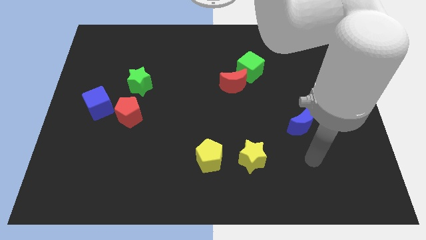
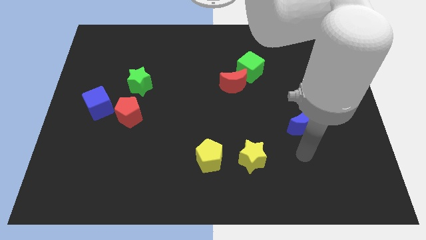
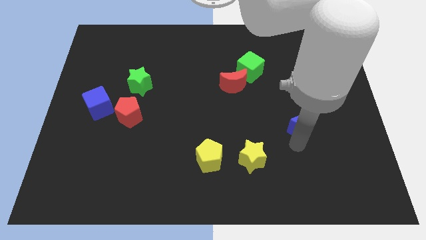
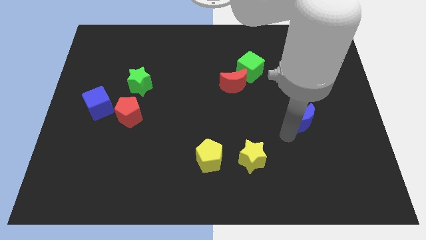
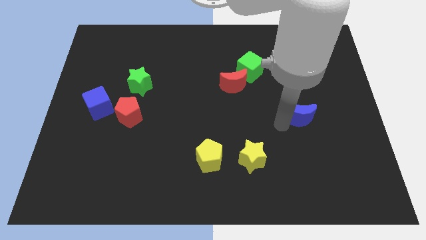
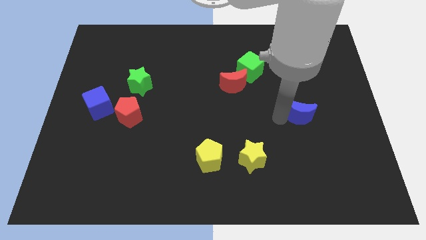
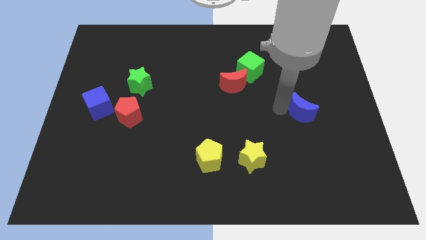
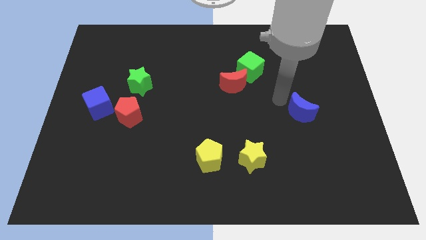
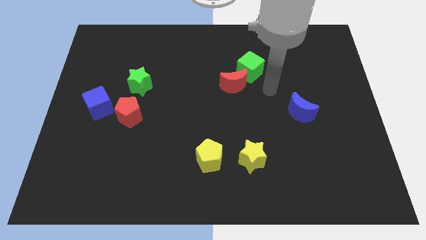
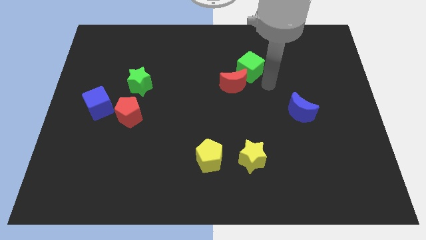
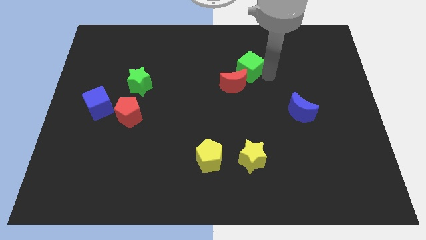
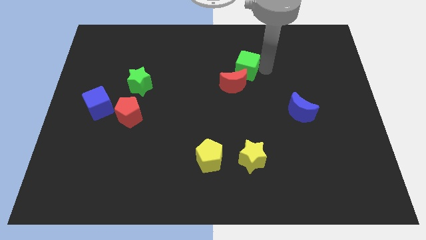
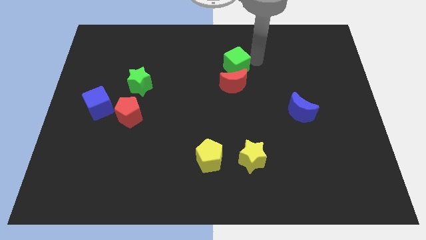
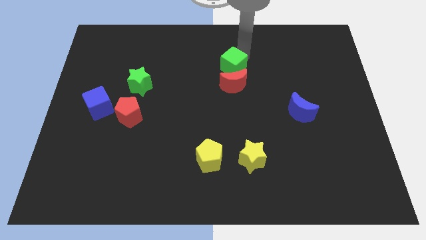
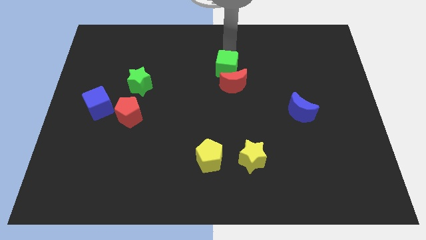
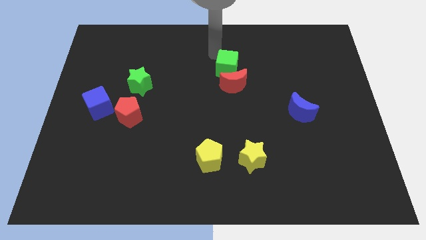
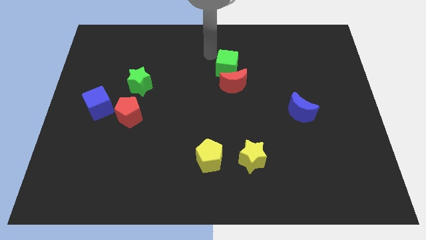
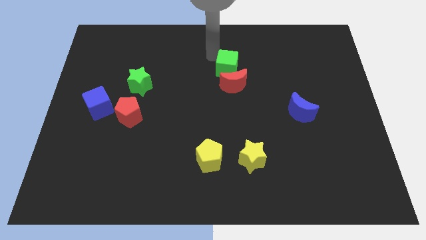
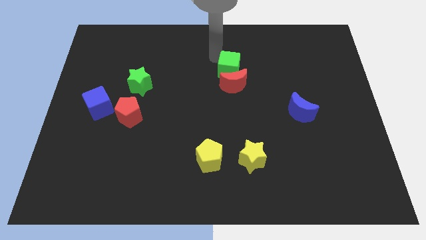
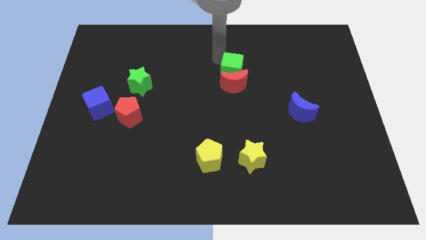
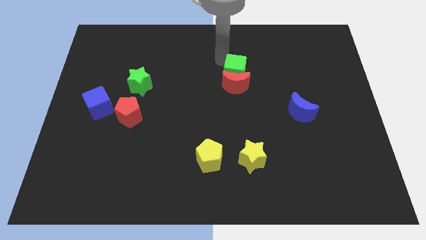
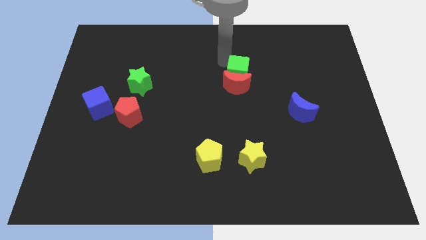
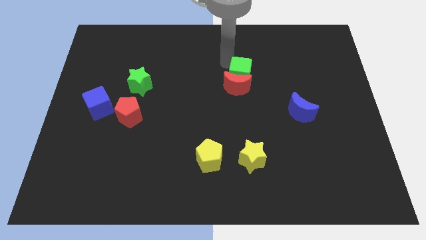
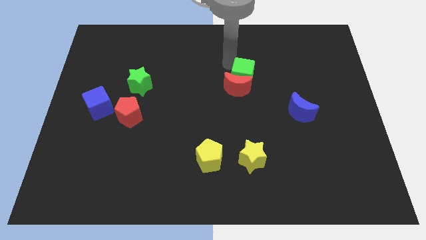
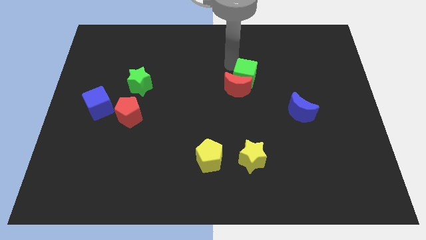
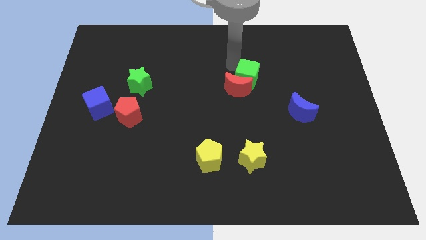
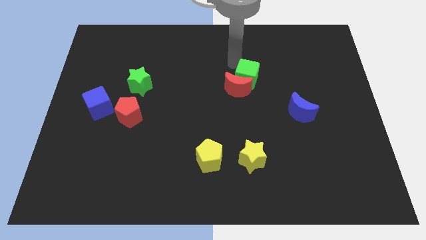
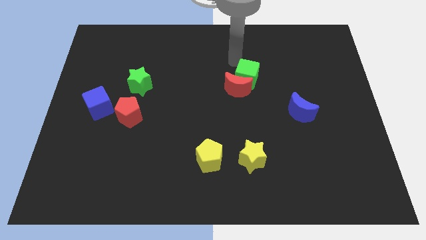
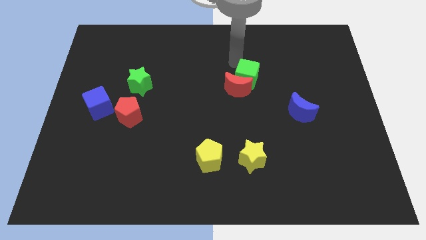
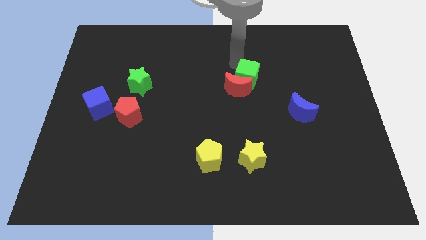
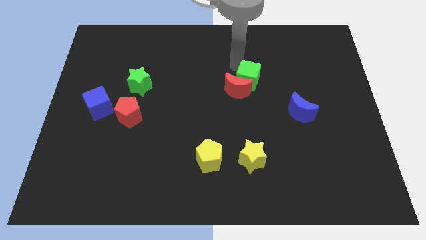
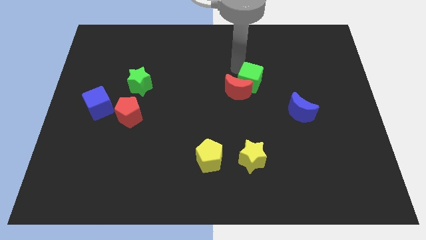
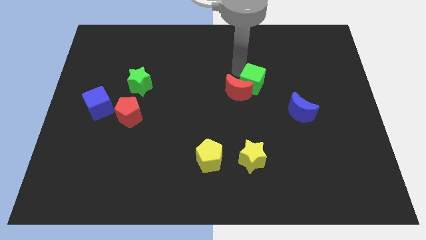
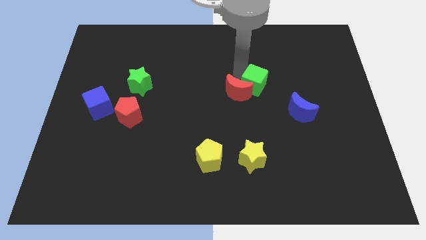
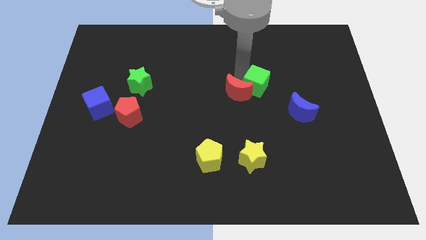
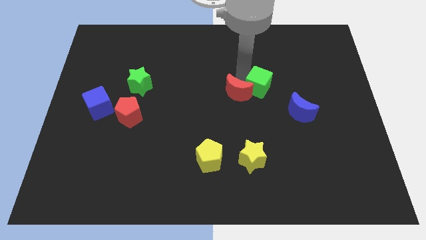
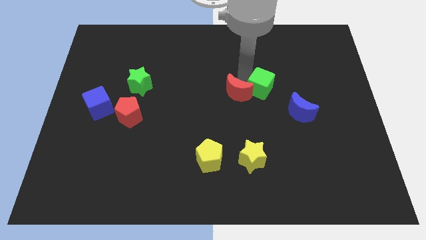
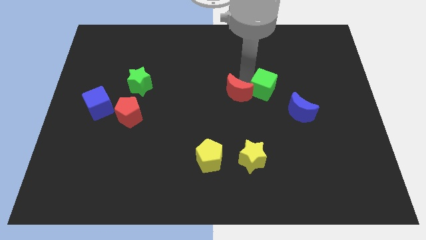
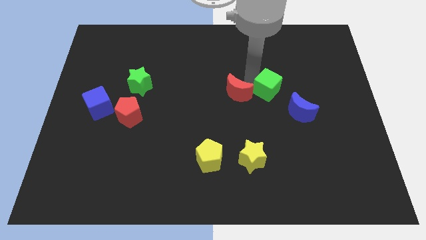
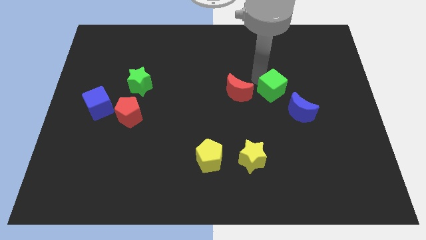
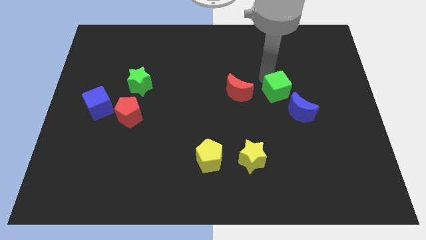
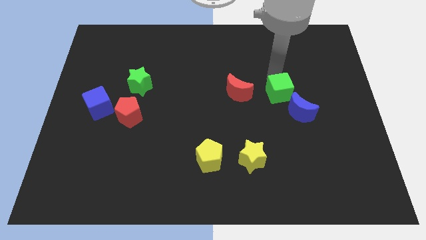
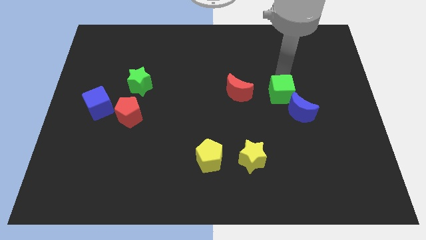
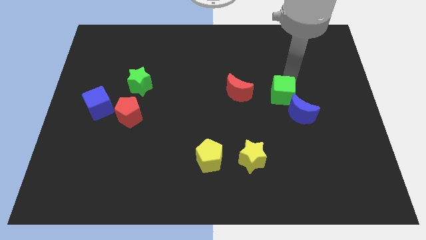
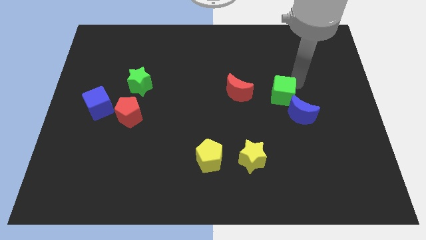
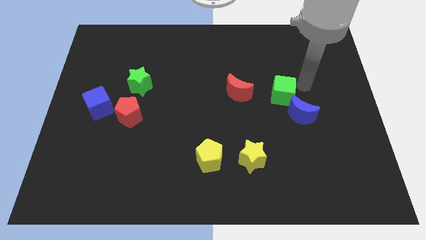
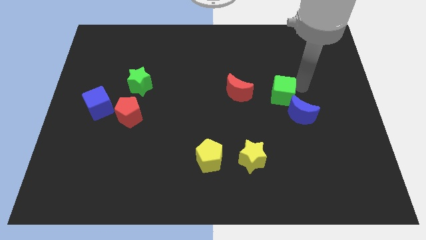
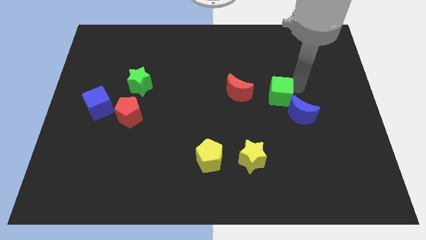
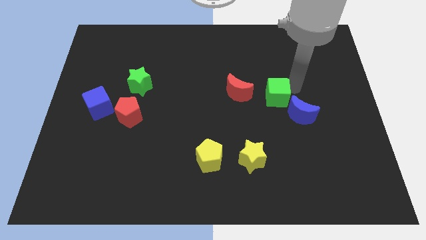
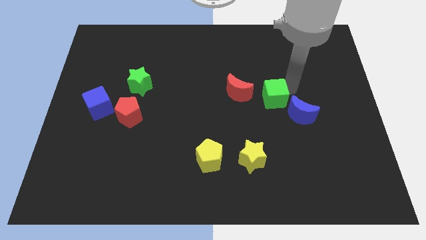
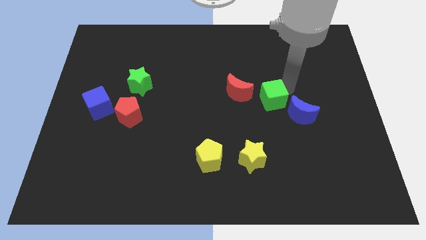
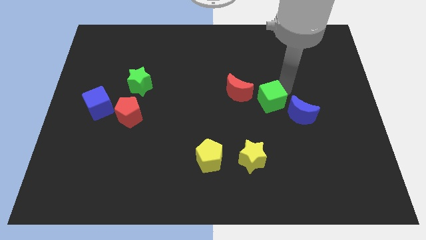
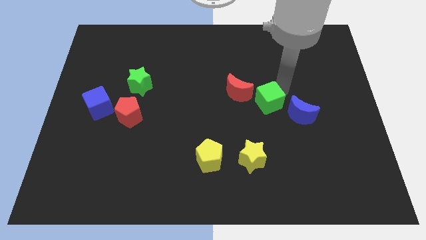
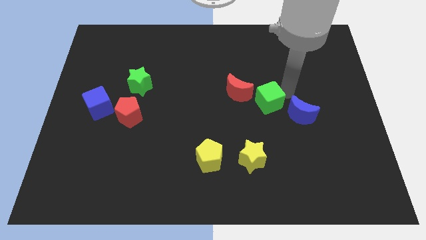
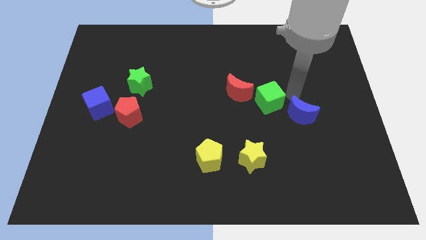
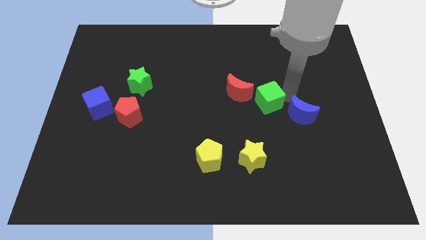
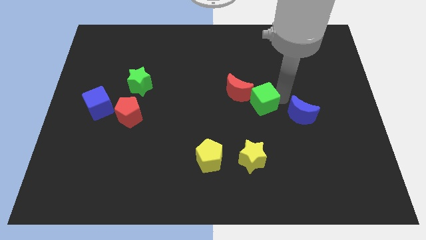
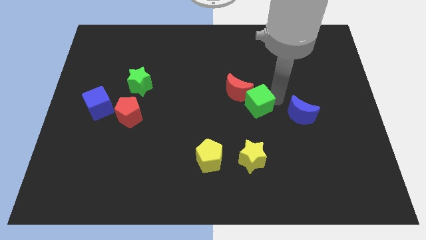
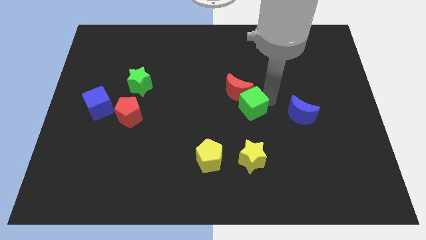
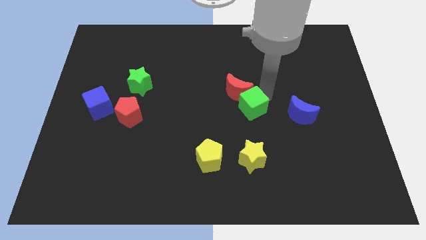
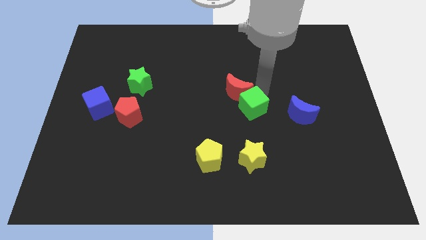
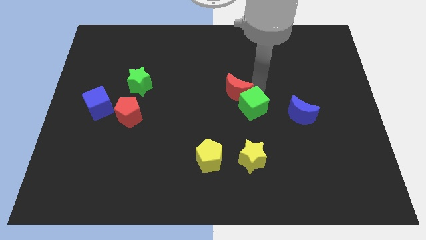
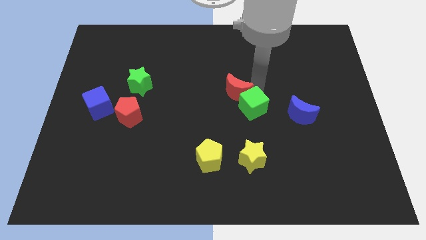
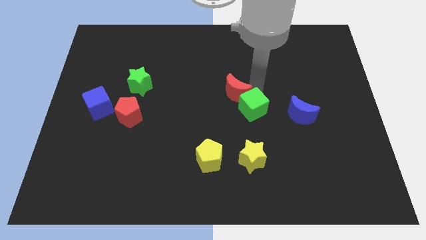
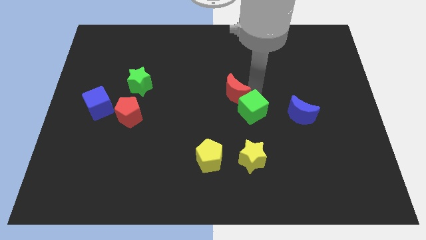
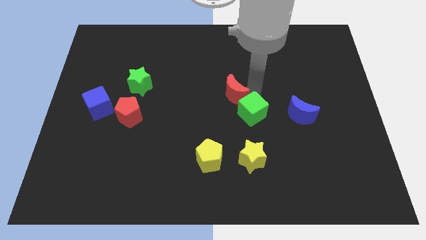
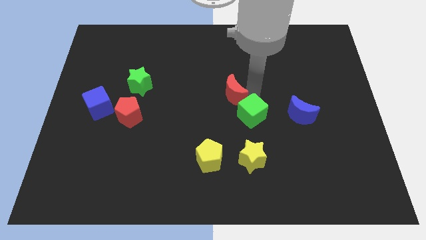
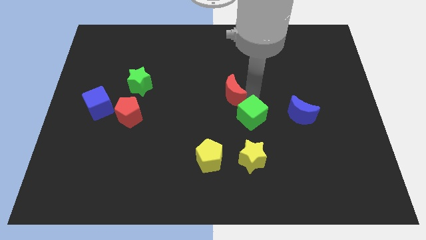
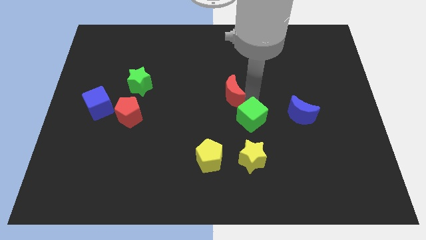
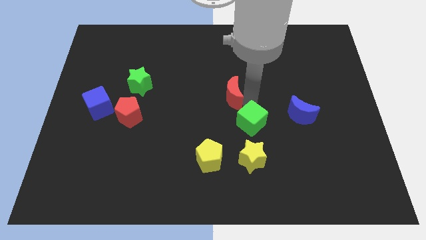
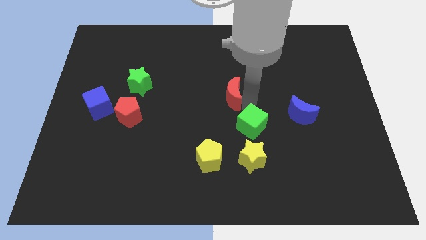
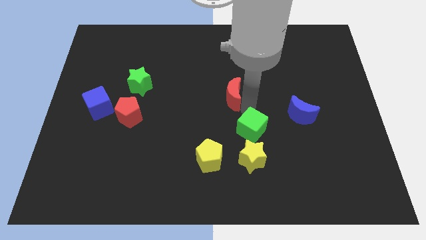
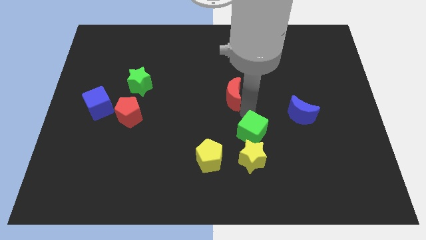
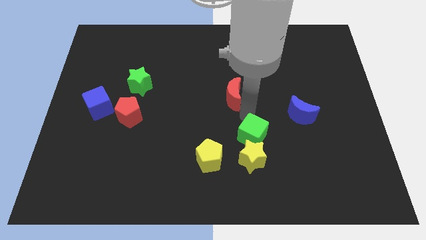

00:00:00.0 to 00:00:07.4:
slide the green cube close to the yellow star
